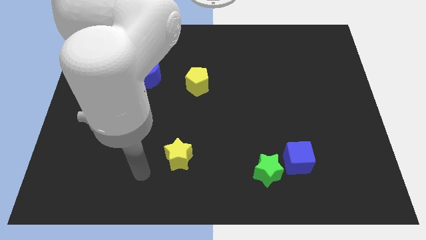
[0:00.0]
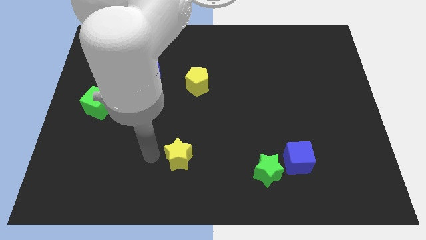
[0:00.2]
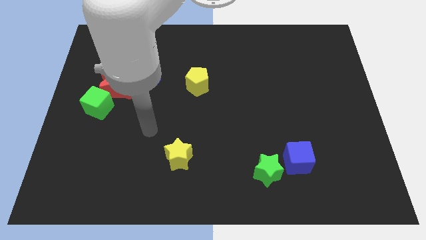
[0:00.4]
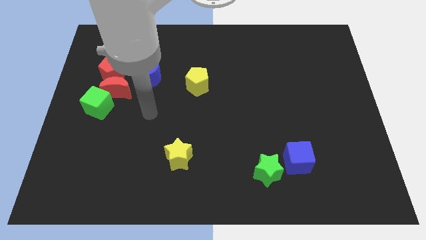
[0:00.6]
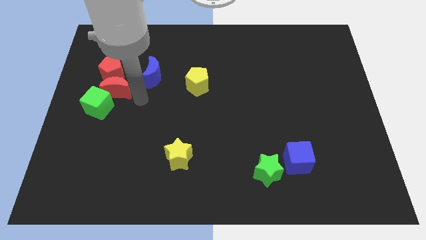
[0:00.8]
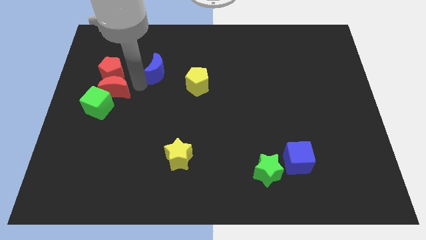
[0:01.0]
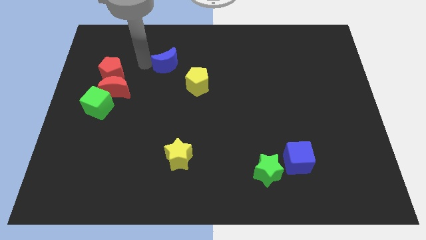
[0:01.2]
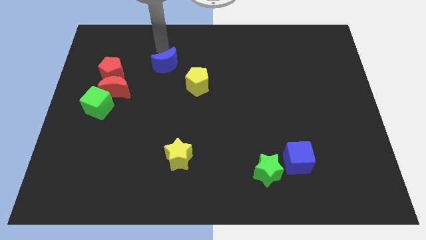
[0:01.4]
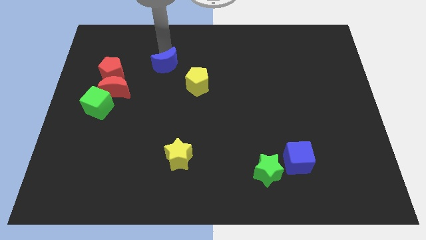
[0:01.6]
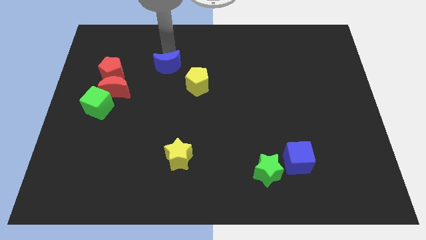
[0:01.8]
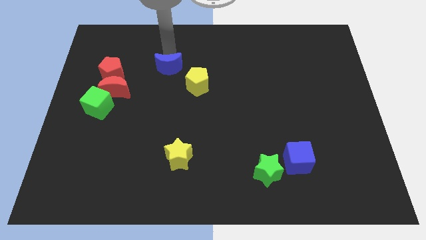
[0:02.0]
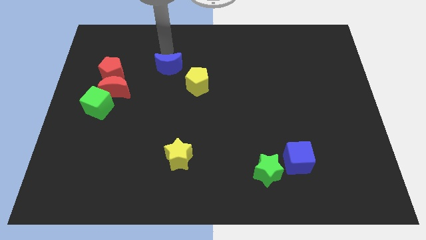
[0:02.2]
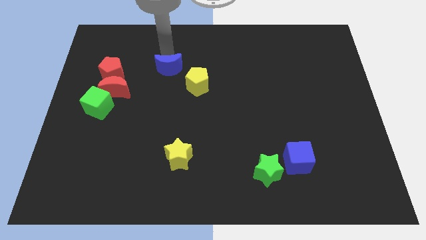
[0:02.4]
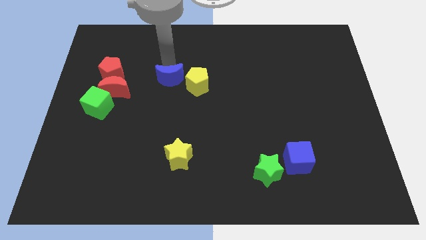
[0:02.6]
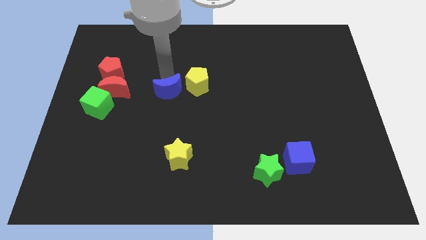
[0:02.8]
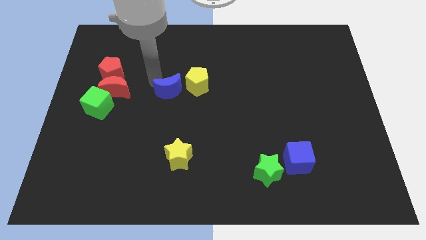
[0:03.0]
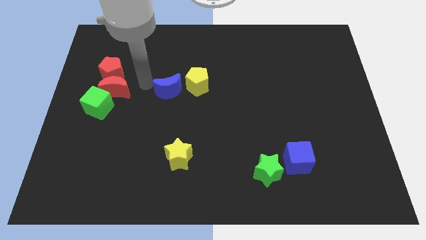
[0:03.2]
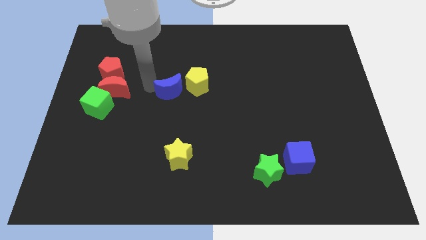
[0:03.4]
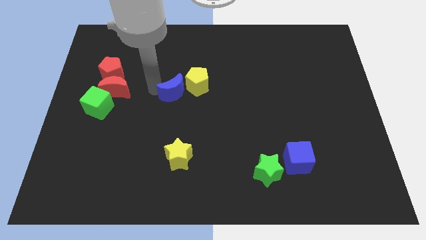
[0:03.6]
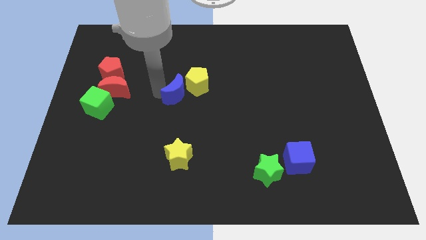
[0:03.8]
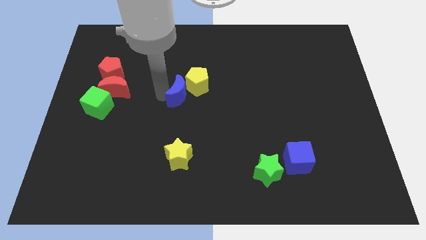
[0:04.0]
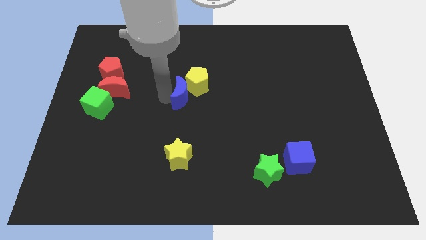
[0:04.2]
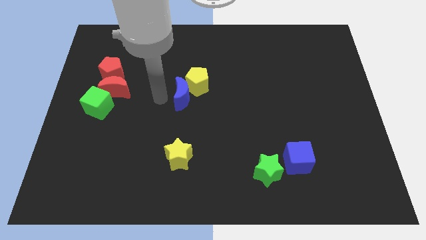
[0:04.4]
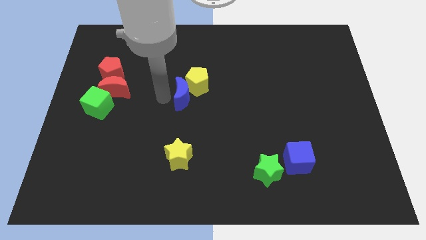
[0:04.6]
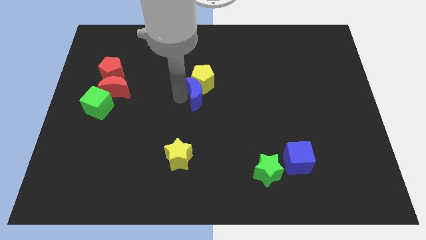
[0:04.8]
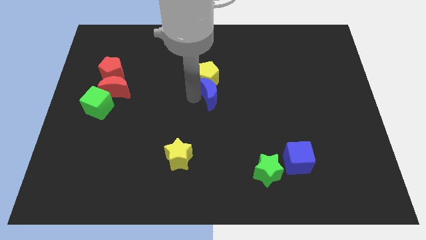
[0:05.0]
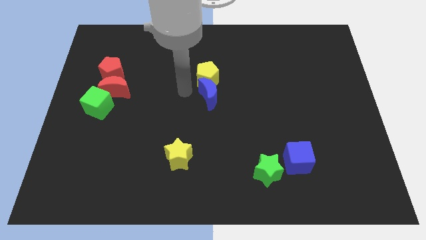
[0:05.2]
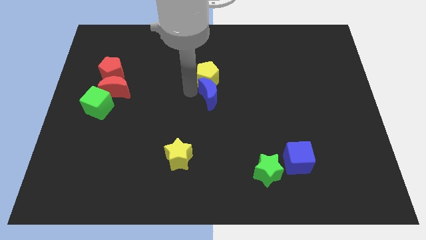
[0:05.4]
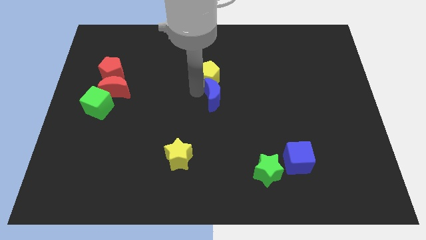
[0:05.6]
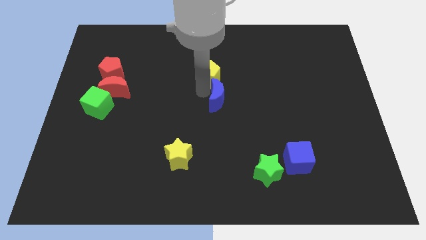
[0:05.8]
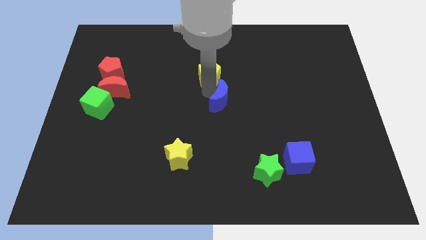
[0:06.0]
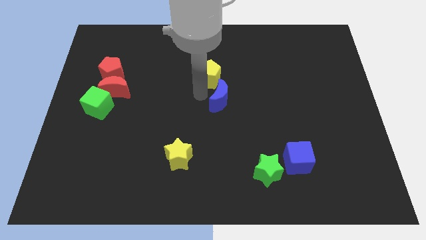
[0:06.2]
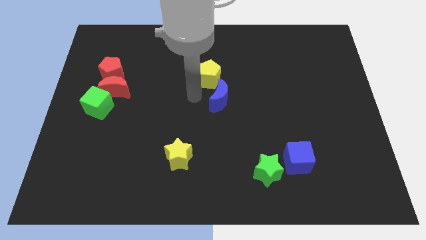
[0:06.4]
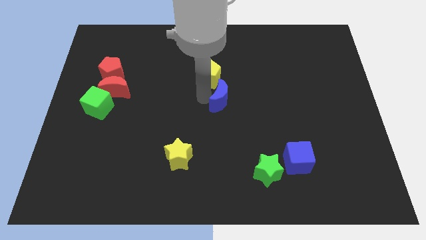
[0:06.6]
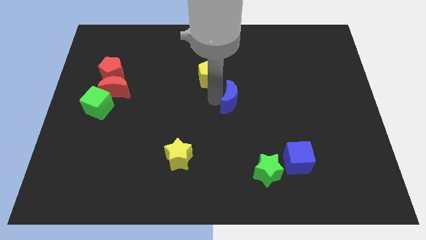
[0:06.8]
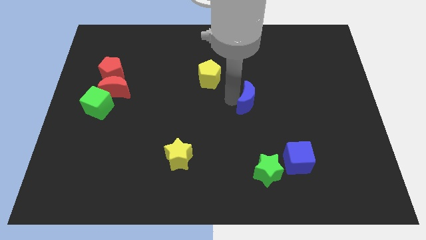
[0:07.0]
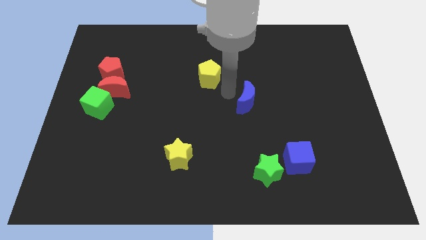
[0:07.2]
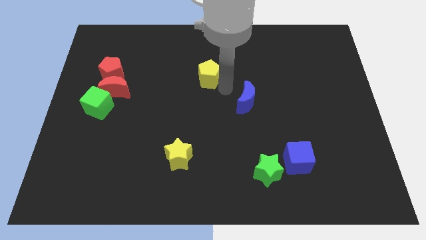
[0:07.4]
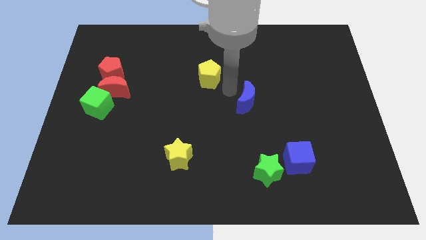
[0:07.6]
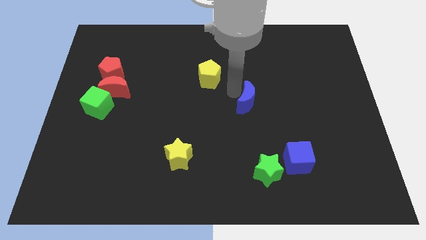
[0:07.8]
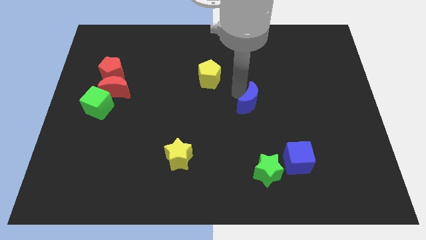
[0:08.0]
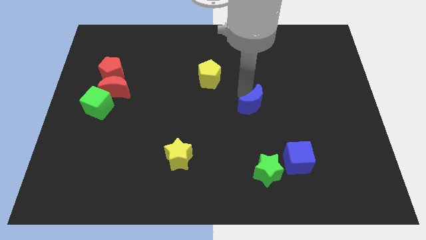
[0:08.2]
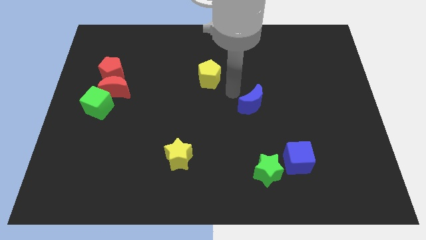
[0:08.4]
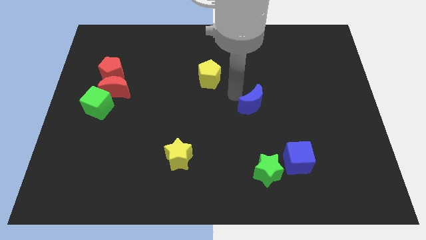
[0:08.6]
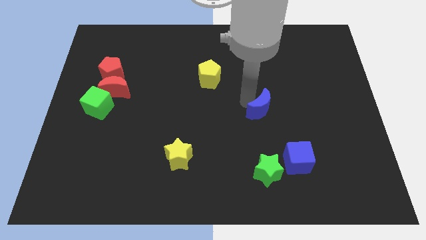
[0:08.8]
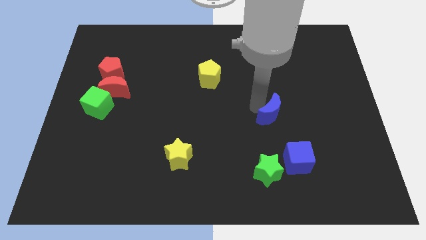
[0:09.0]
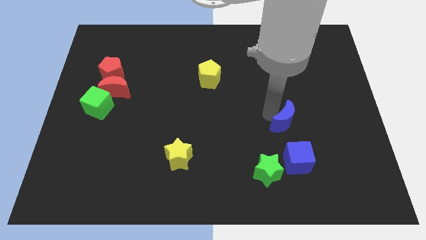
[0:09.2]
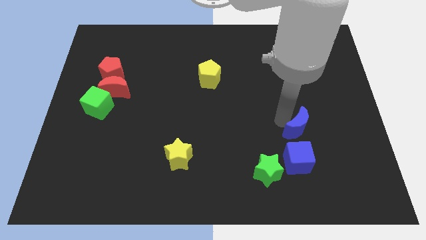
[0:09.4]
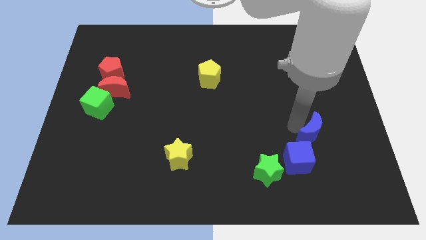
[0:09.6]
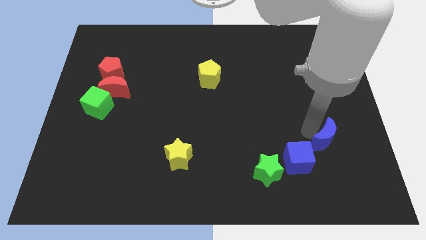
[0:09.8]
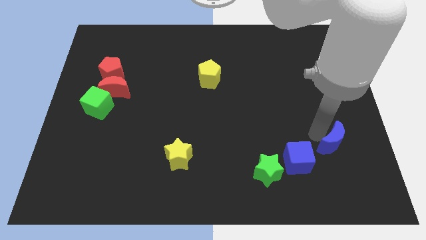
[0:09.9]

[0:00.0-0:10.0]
slide the blue moon just right of the blue cube

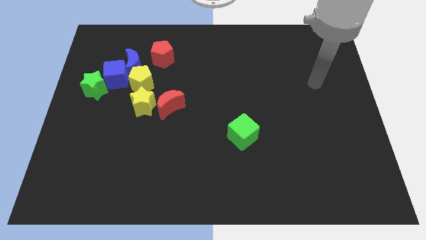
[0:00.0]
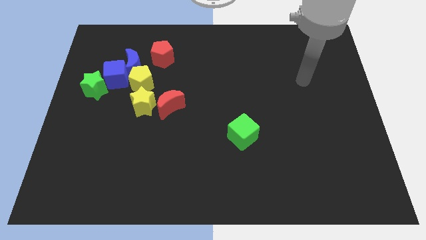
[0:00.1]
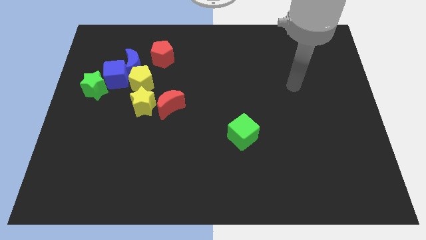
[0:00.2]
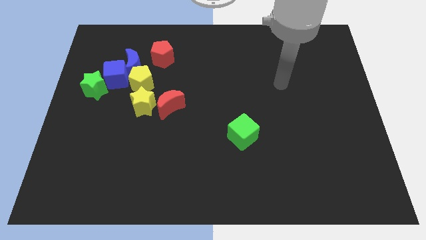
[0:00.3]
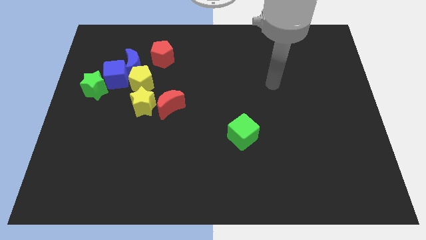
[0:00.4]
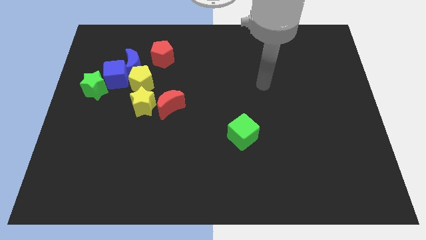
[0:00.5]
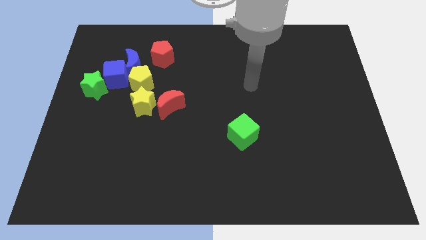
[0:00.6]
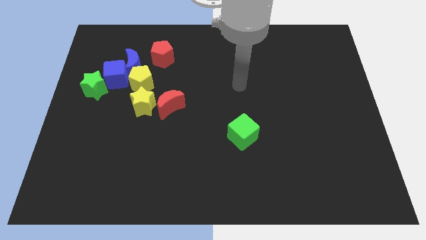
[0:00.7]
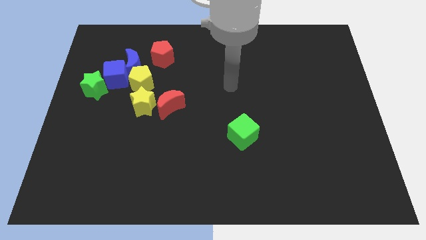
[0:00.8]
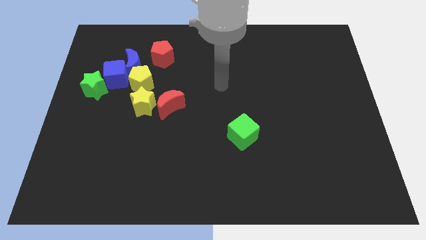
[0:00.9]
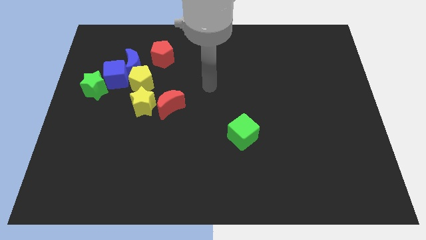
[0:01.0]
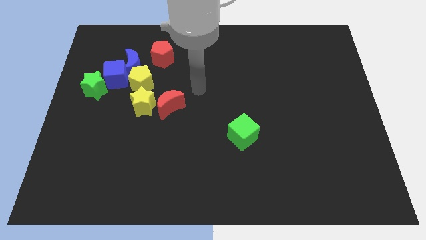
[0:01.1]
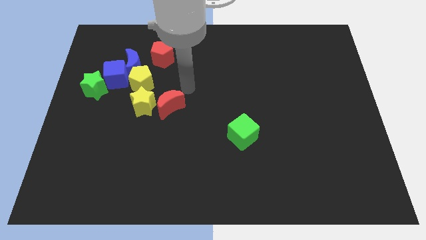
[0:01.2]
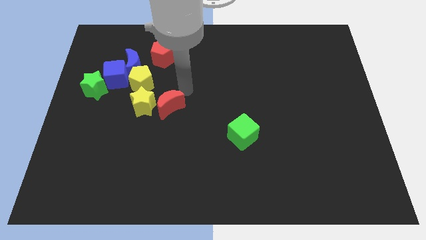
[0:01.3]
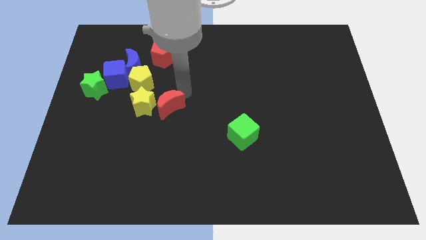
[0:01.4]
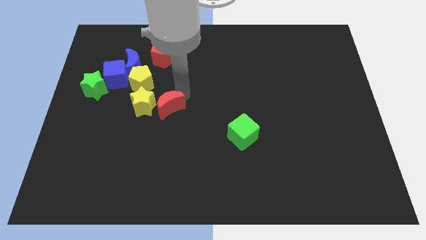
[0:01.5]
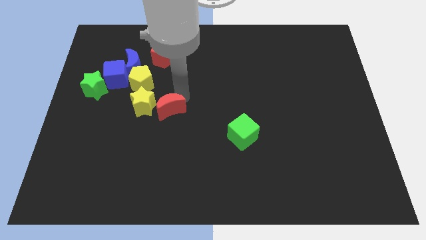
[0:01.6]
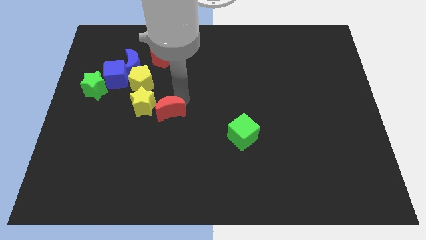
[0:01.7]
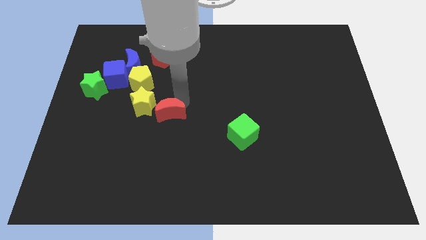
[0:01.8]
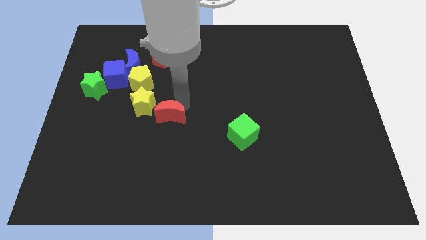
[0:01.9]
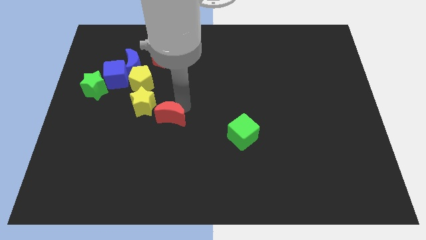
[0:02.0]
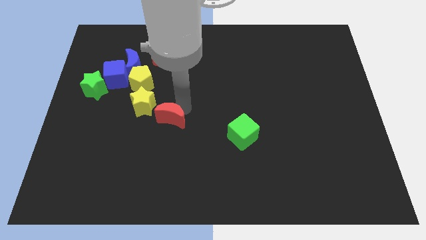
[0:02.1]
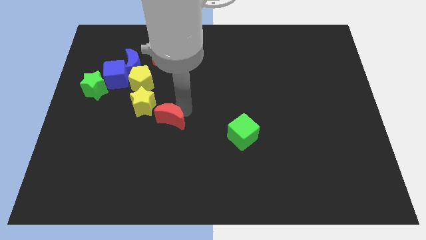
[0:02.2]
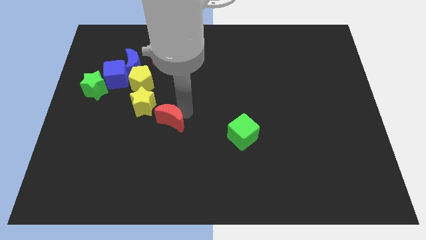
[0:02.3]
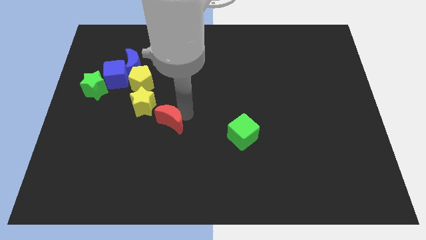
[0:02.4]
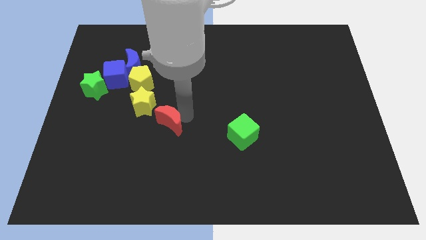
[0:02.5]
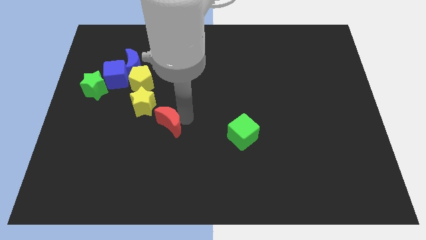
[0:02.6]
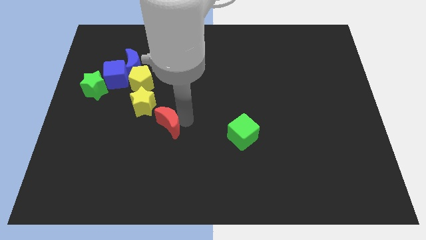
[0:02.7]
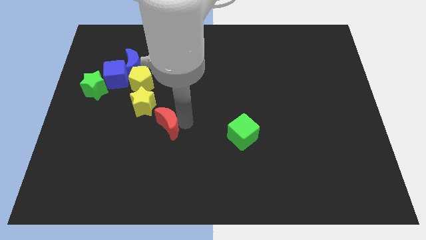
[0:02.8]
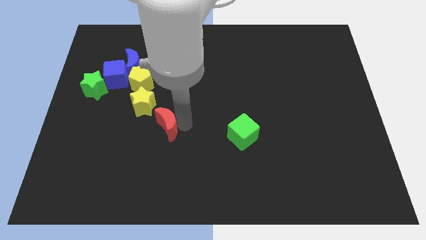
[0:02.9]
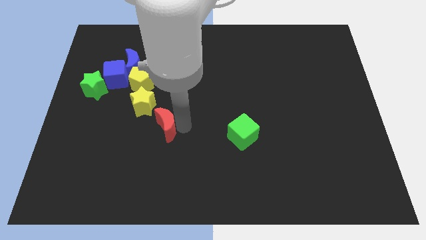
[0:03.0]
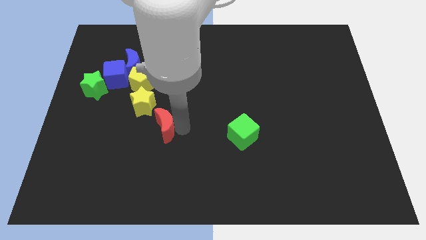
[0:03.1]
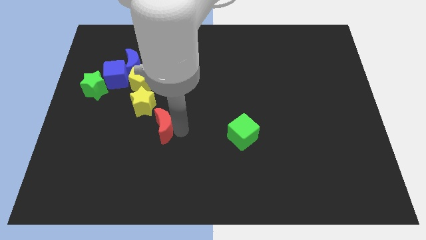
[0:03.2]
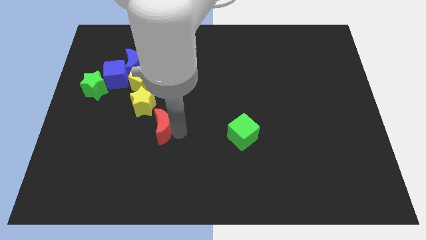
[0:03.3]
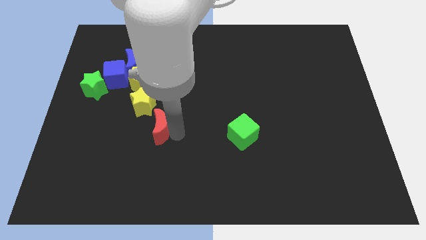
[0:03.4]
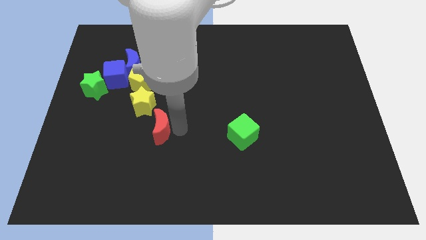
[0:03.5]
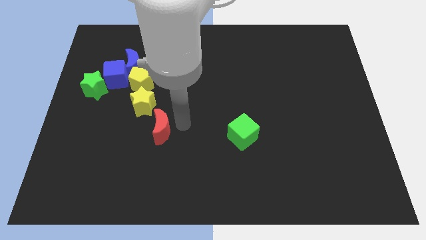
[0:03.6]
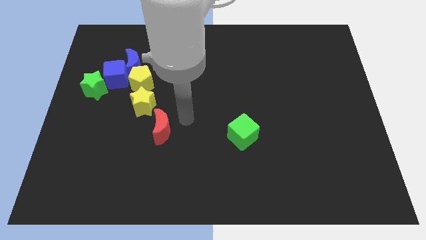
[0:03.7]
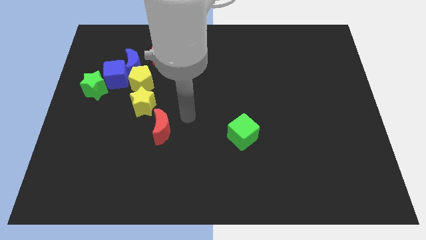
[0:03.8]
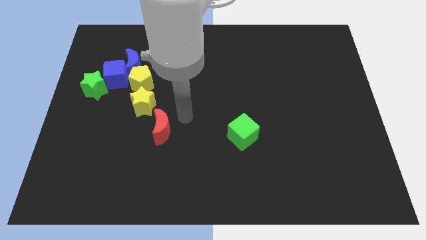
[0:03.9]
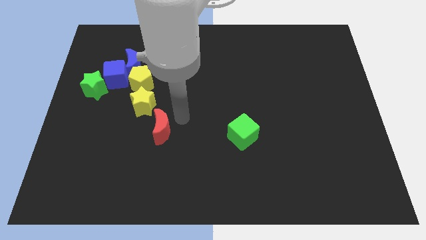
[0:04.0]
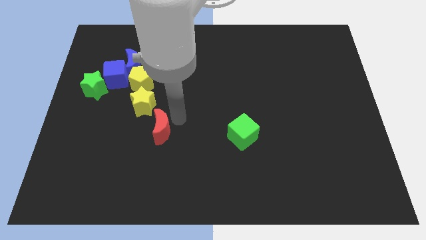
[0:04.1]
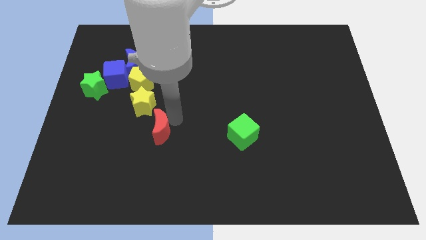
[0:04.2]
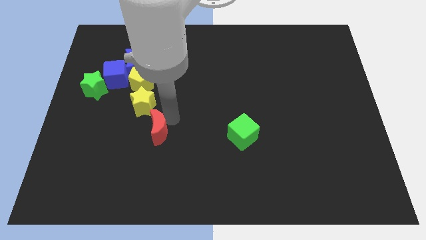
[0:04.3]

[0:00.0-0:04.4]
put the red moon to the bottom side of the yellow star
